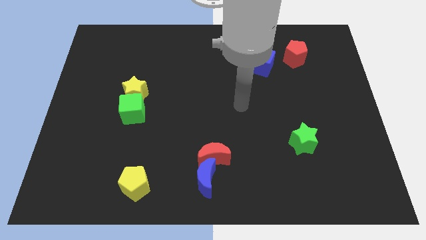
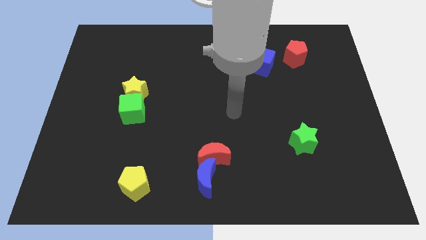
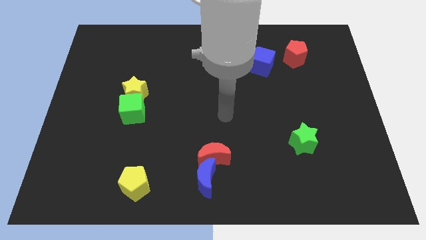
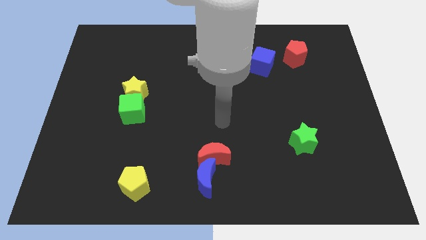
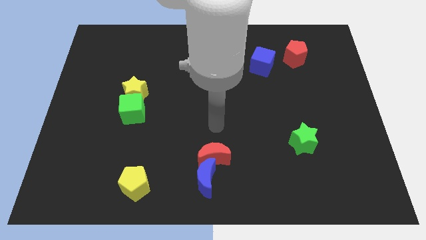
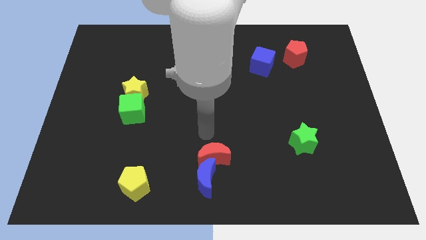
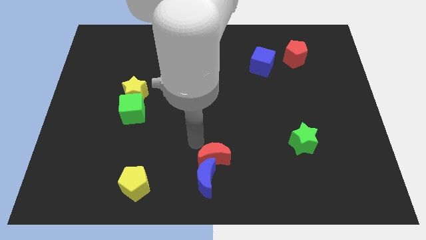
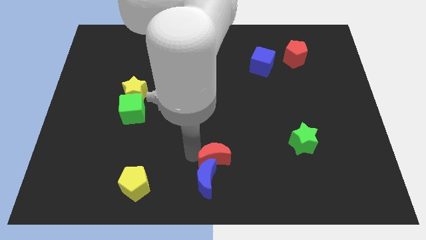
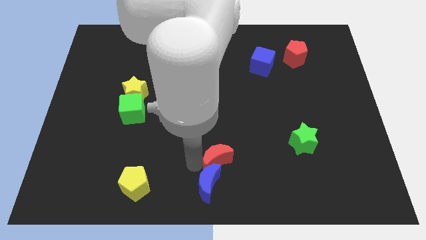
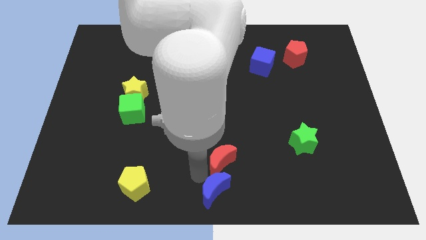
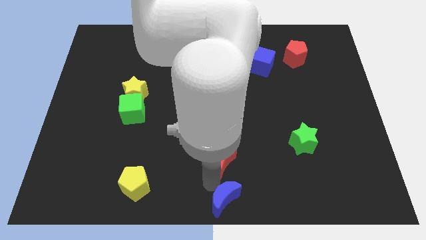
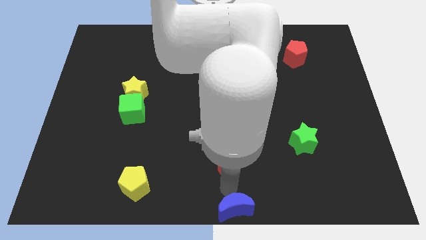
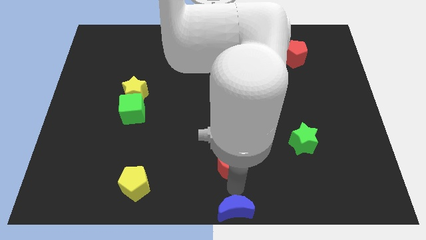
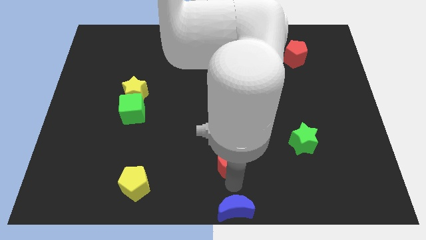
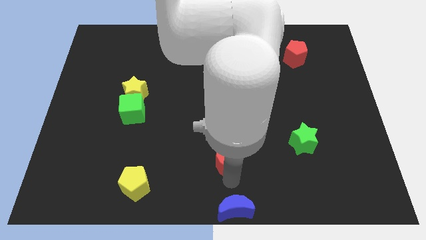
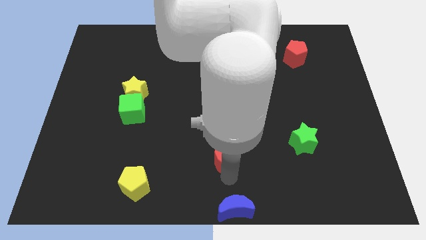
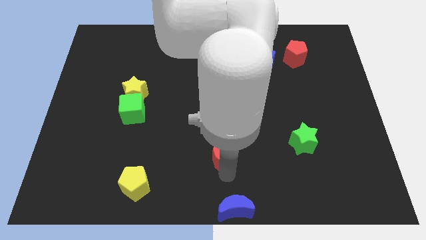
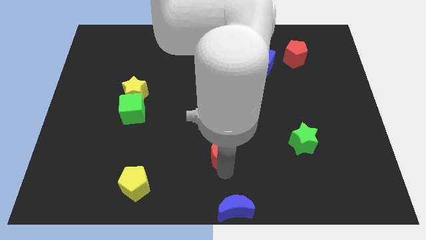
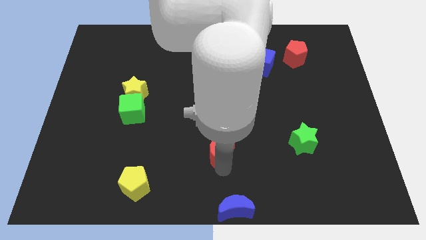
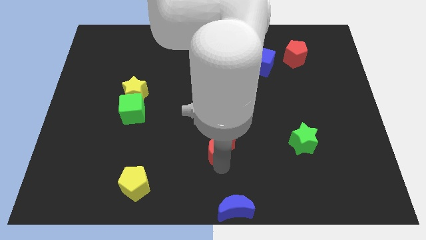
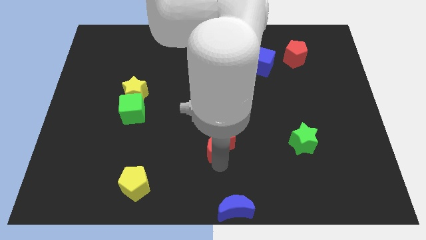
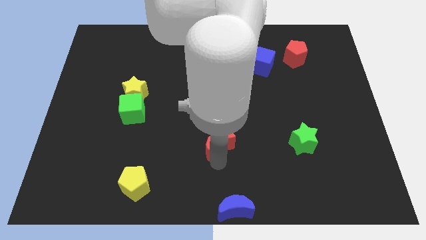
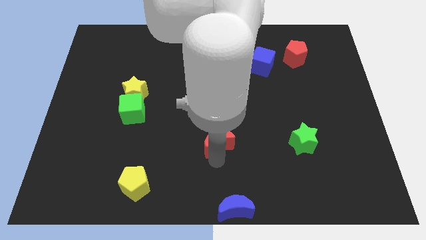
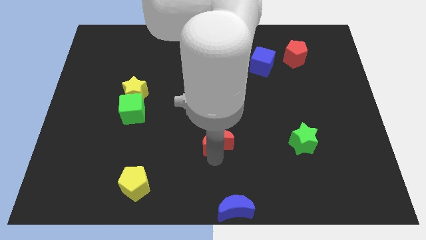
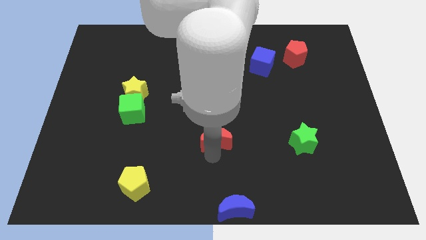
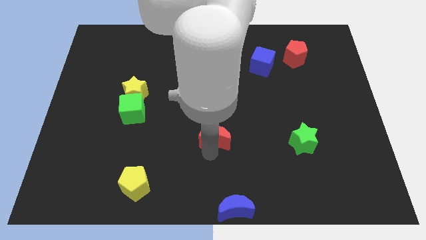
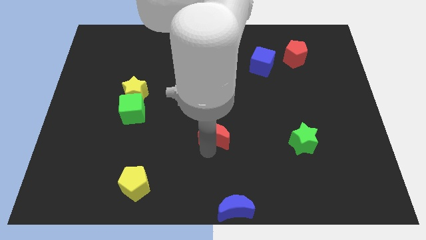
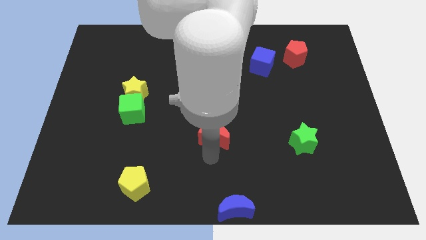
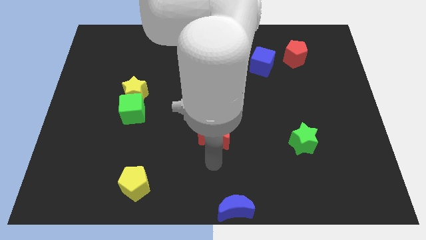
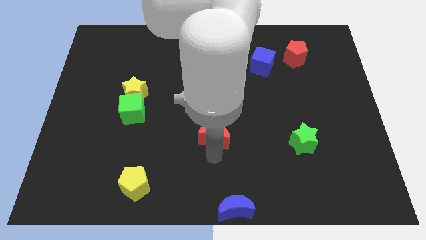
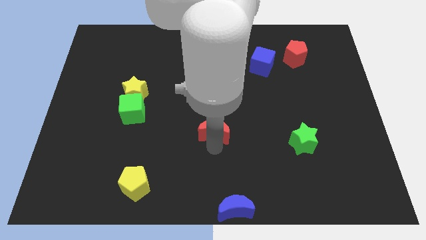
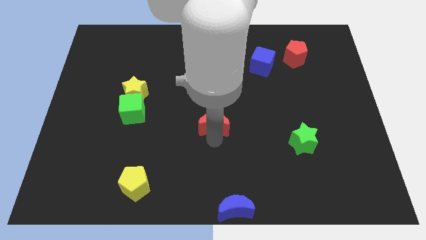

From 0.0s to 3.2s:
move the red moon up a bit

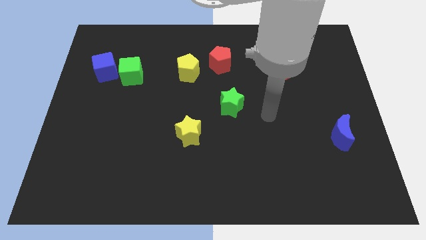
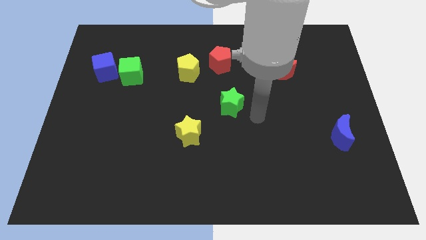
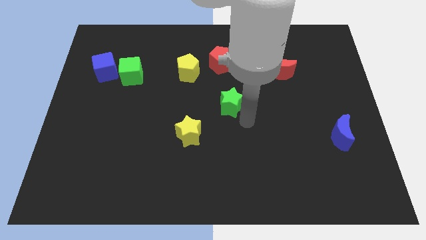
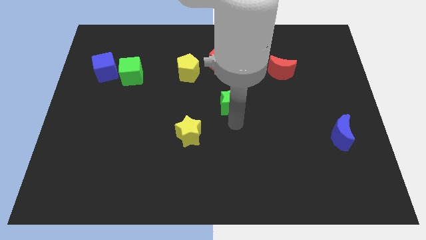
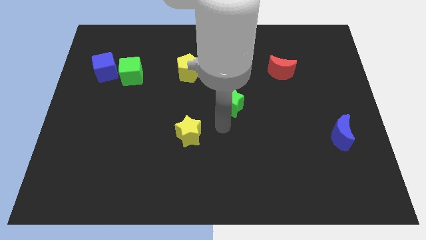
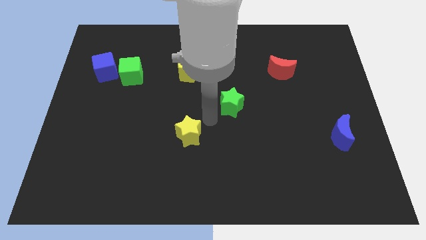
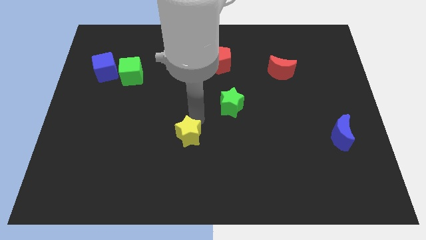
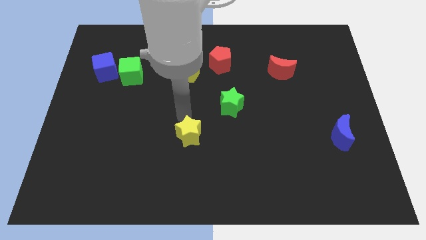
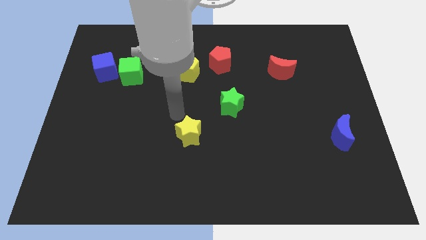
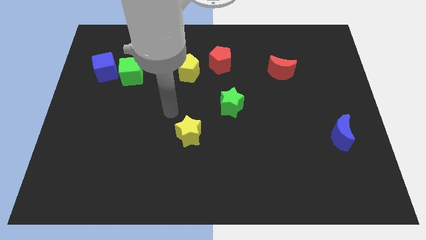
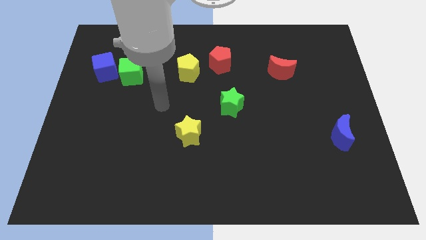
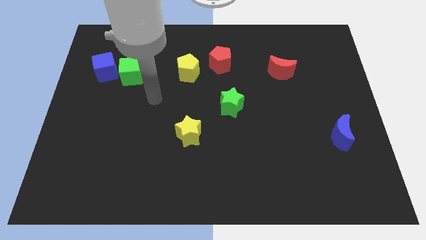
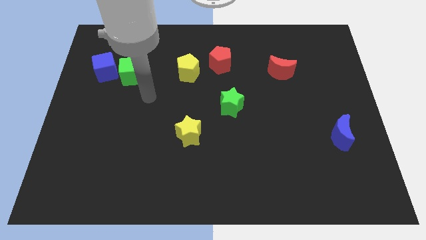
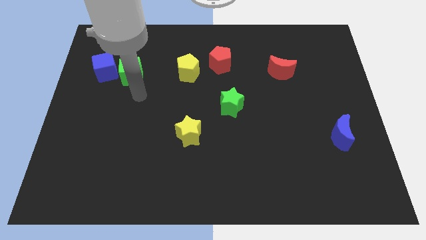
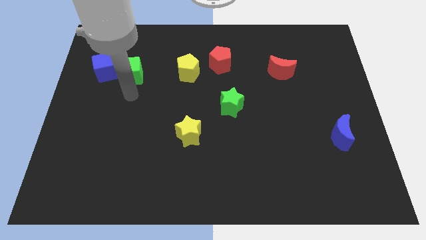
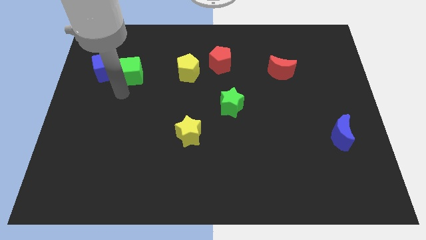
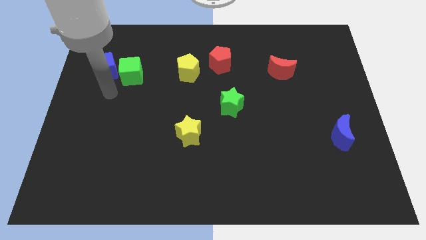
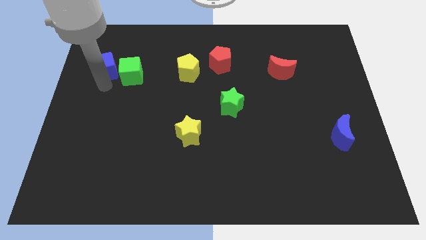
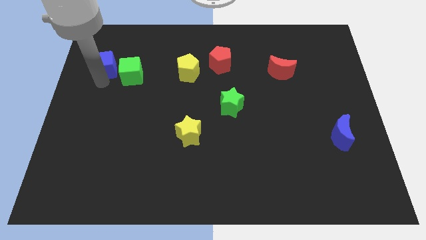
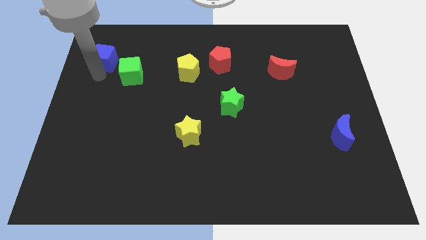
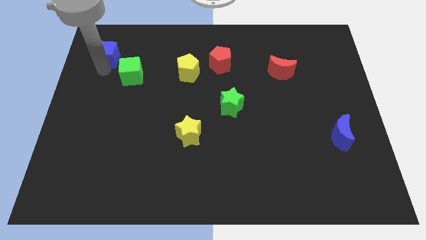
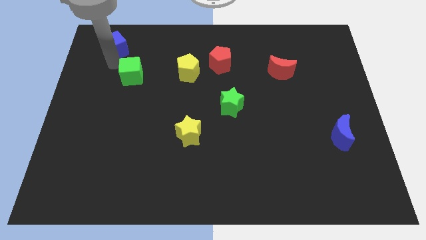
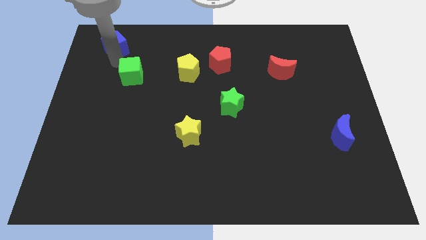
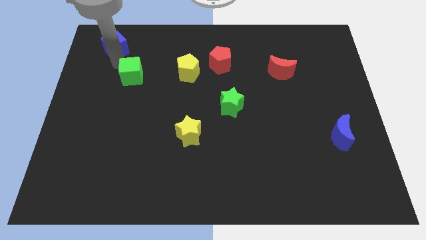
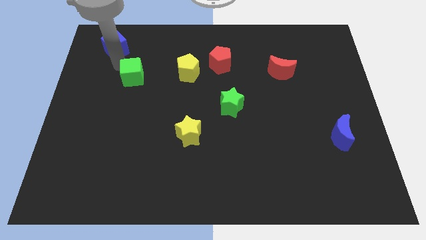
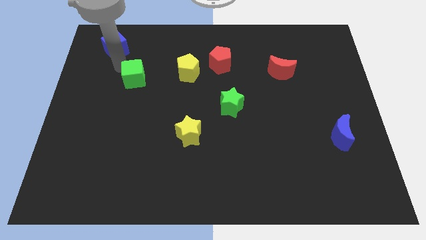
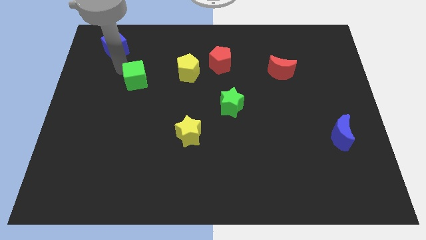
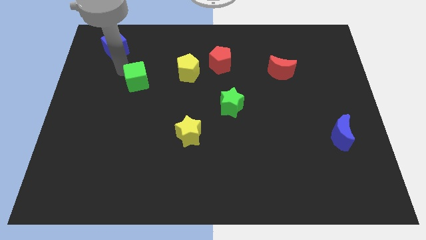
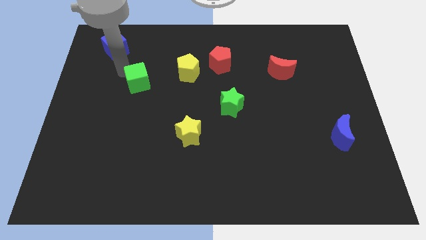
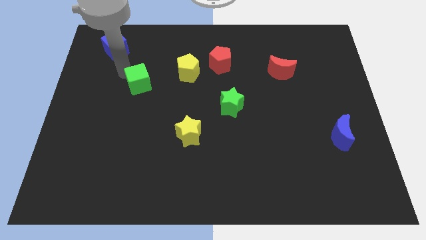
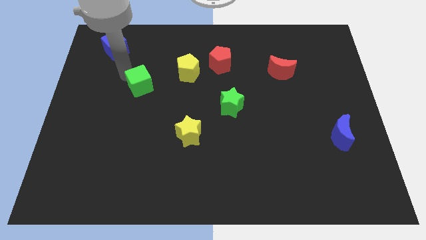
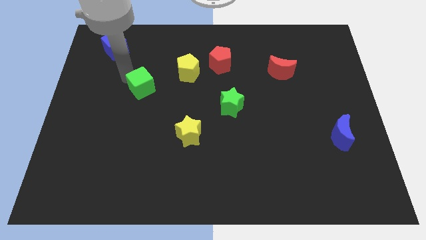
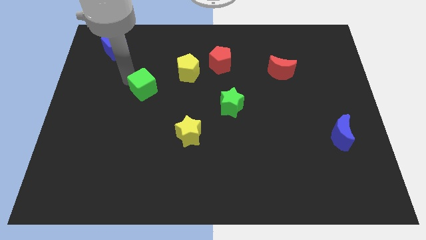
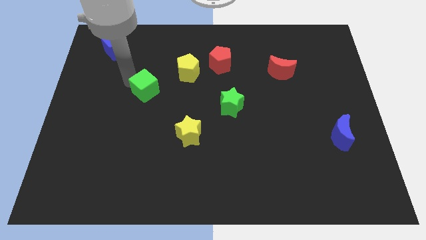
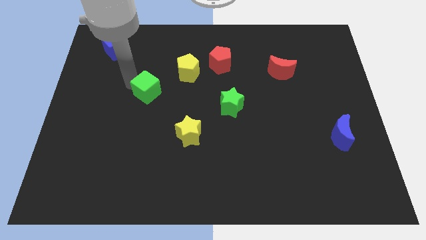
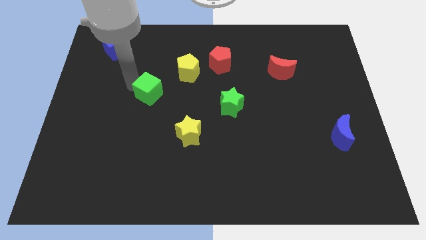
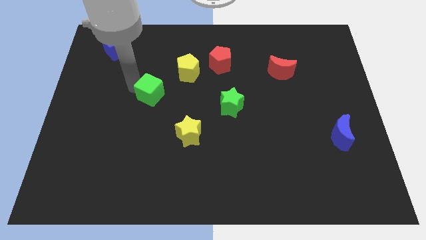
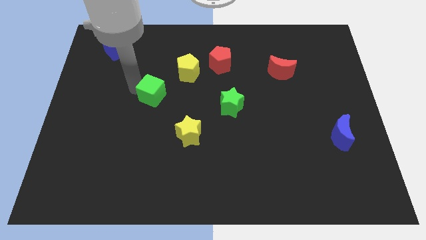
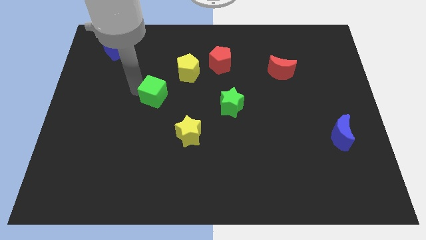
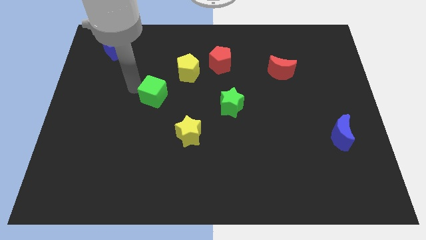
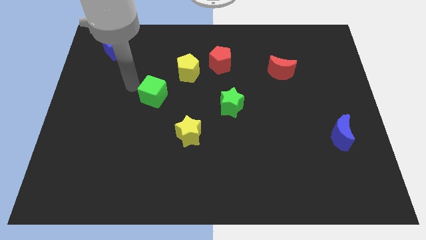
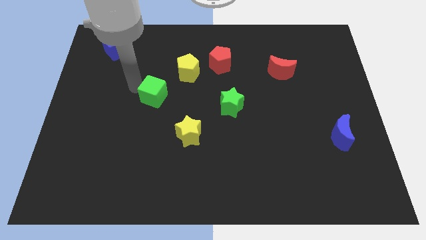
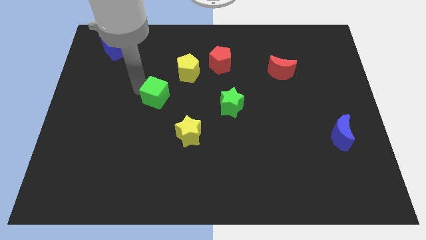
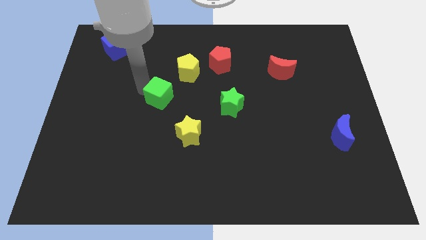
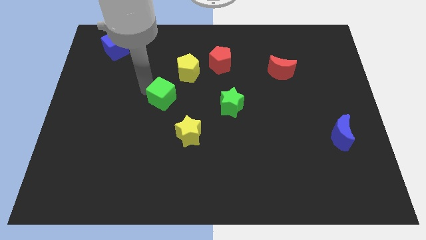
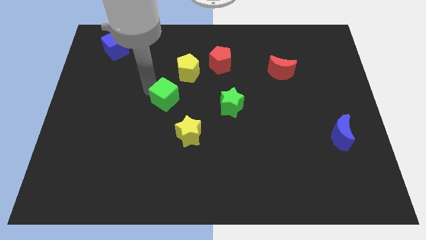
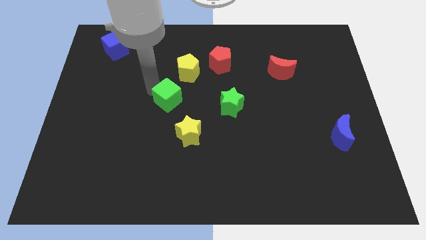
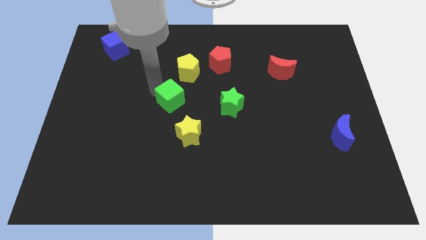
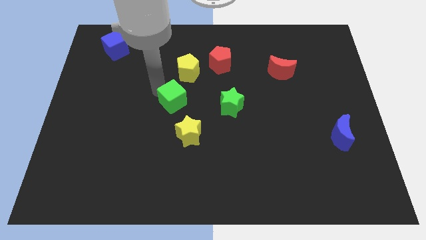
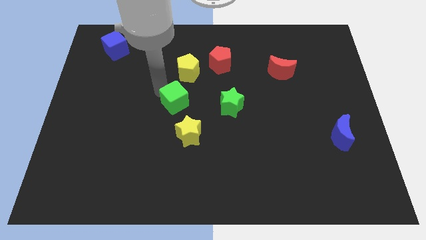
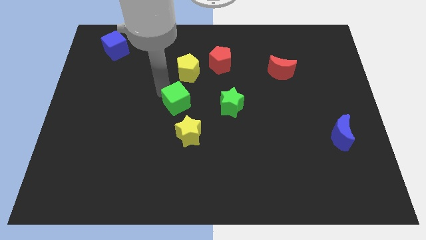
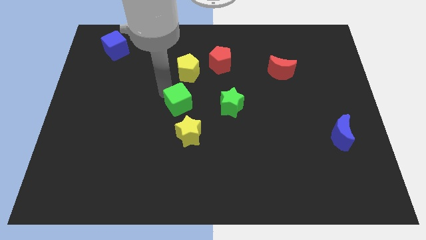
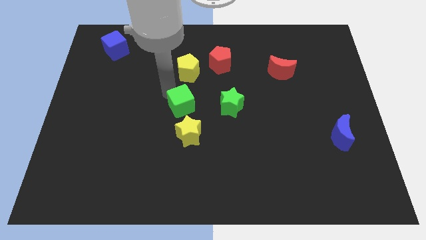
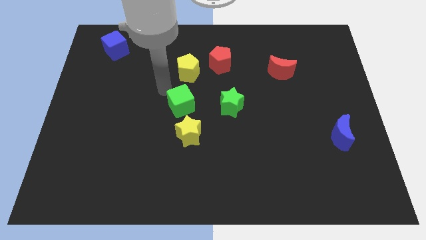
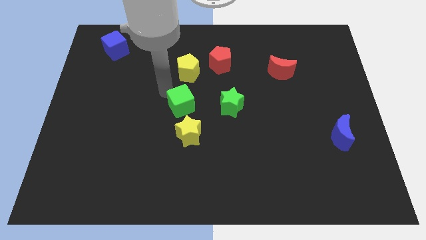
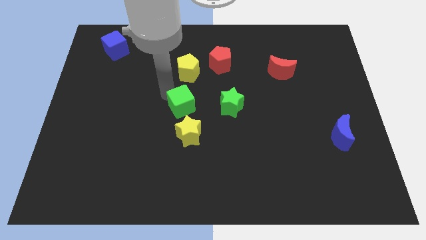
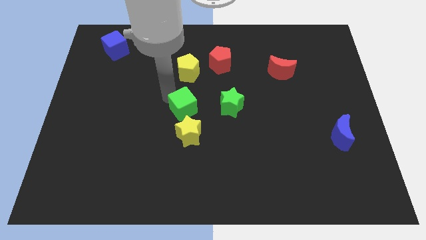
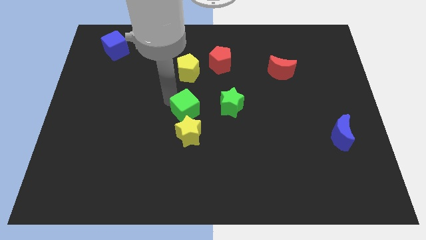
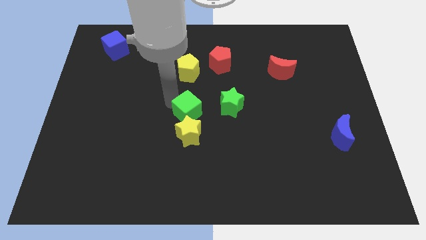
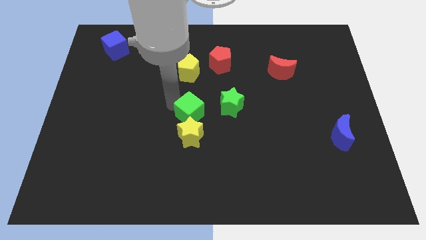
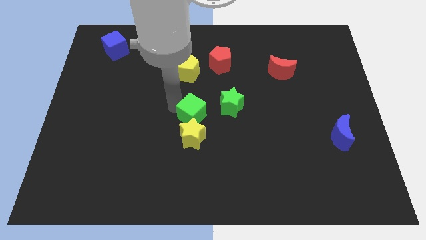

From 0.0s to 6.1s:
slide the green cube diagonally down and right
